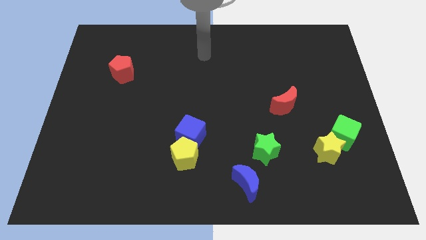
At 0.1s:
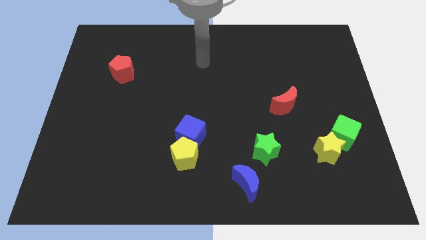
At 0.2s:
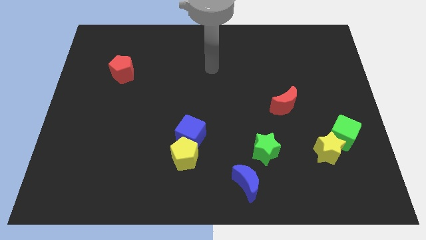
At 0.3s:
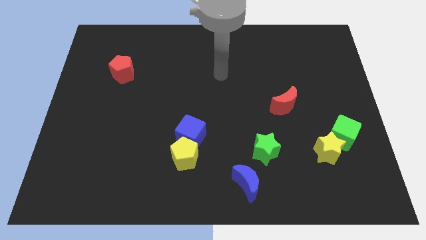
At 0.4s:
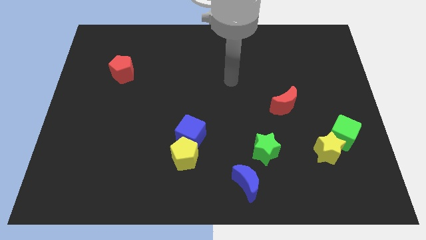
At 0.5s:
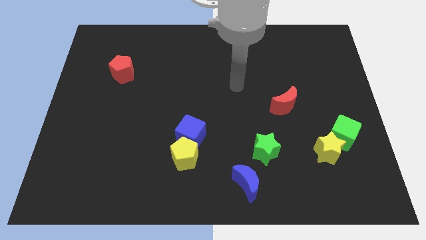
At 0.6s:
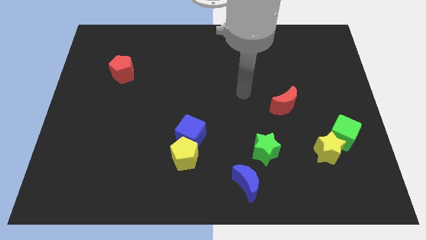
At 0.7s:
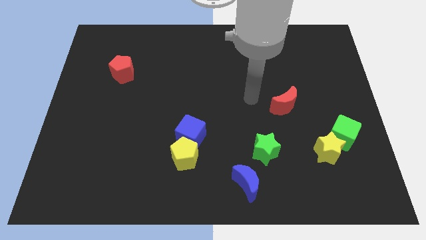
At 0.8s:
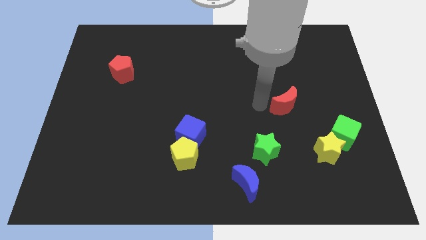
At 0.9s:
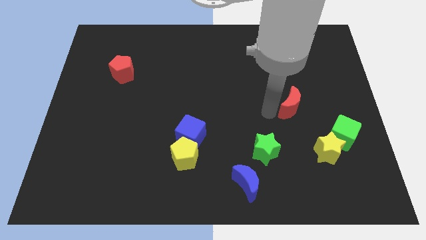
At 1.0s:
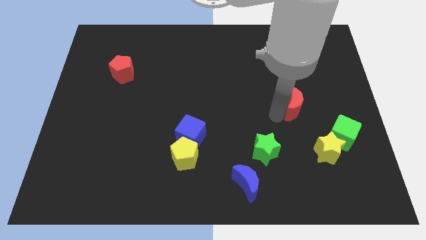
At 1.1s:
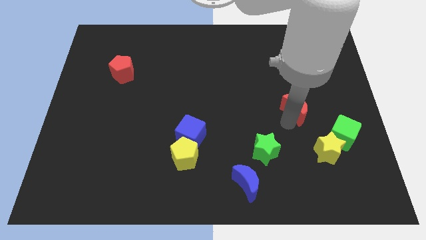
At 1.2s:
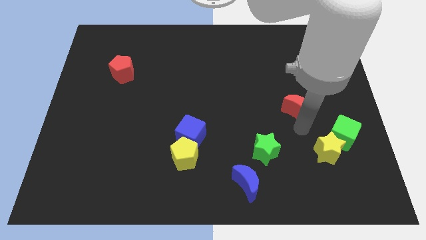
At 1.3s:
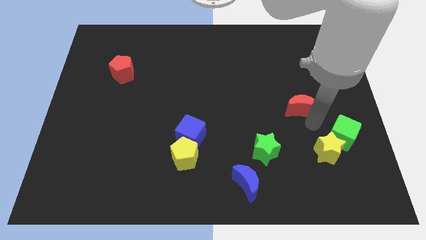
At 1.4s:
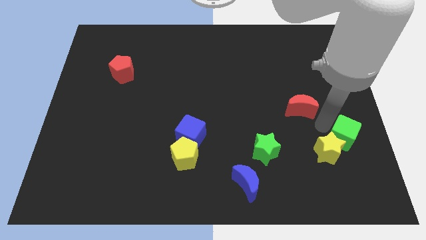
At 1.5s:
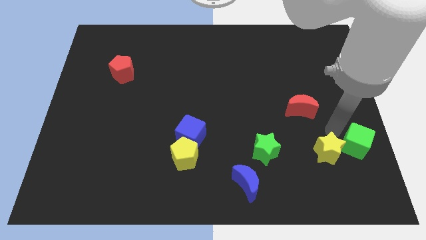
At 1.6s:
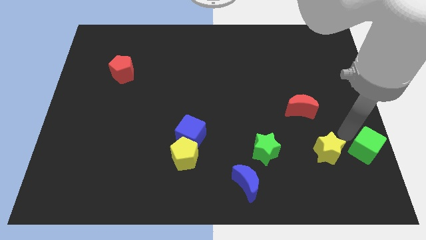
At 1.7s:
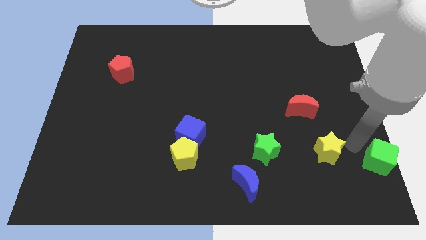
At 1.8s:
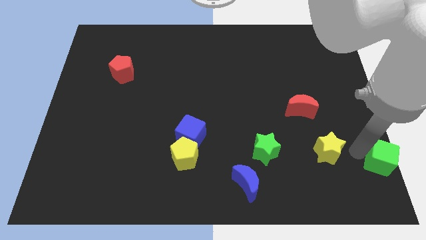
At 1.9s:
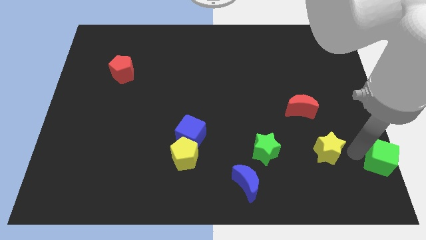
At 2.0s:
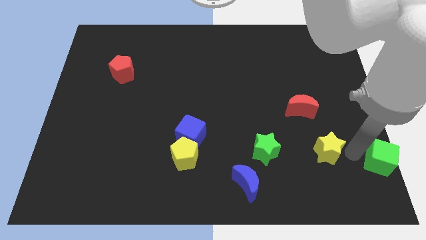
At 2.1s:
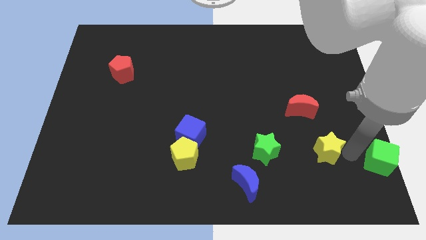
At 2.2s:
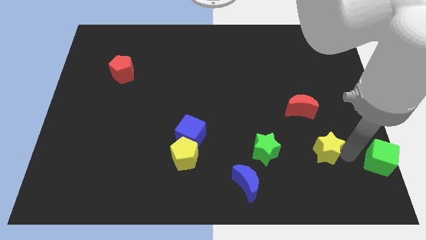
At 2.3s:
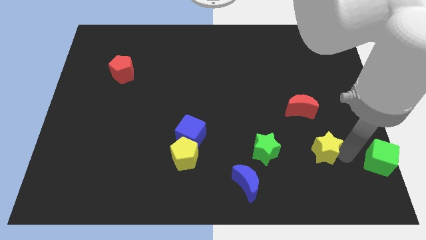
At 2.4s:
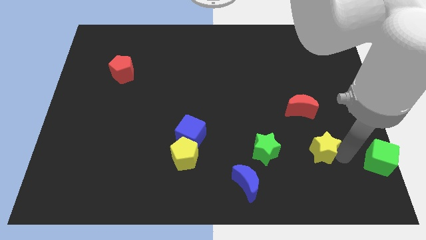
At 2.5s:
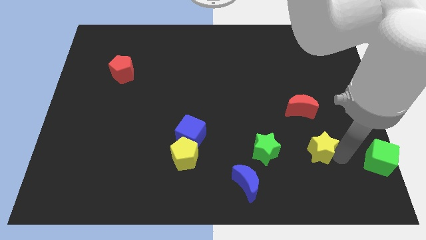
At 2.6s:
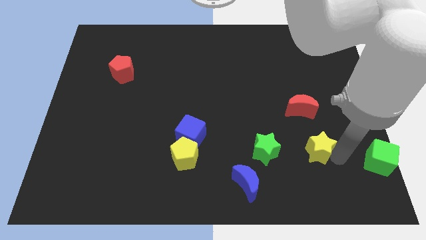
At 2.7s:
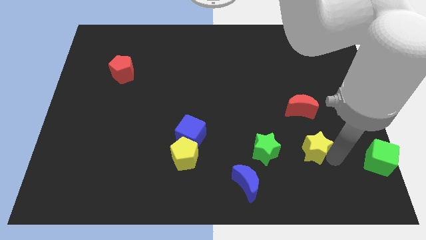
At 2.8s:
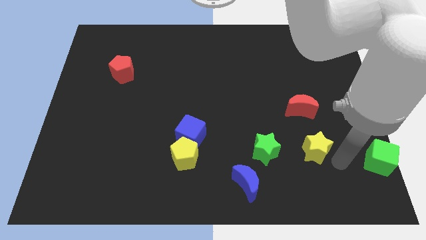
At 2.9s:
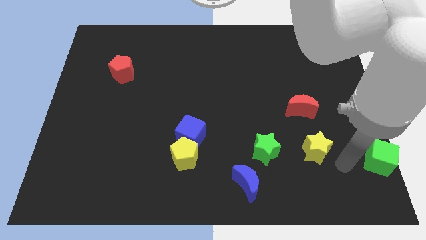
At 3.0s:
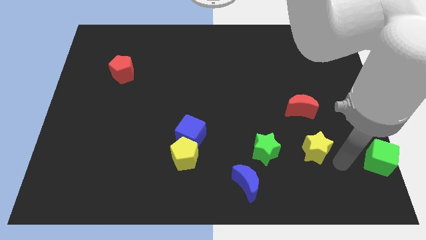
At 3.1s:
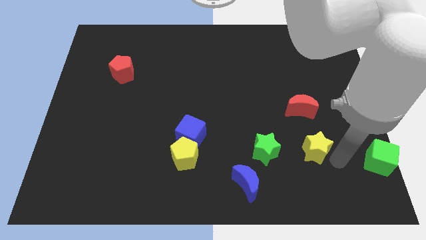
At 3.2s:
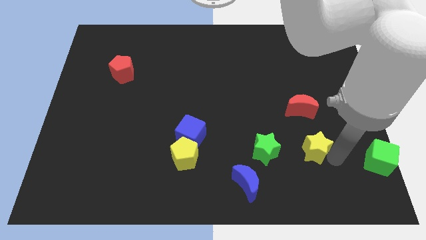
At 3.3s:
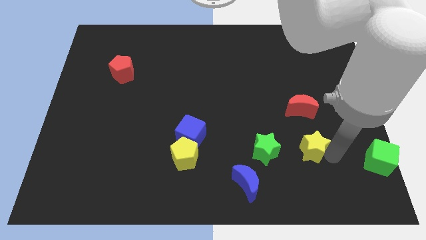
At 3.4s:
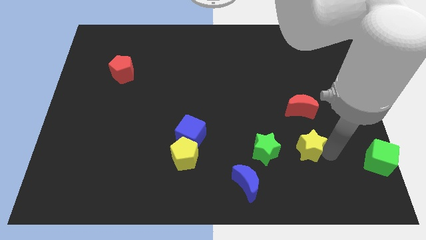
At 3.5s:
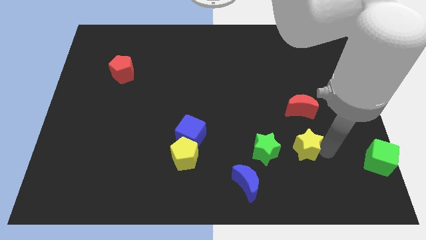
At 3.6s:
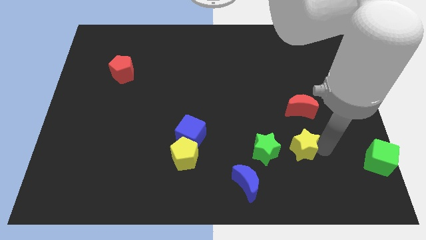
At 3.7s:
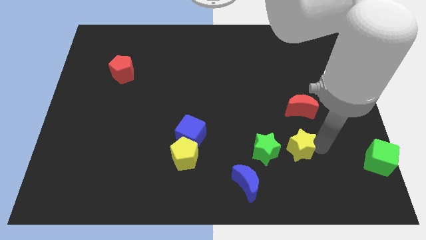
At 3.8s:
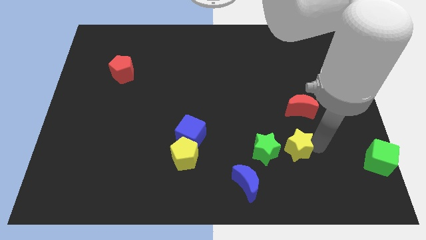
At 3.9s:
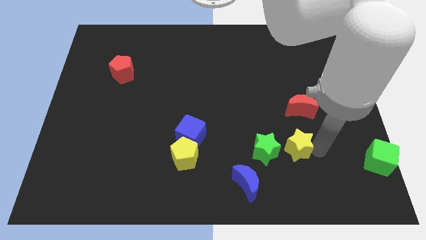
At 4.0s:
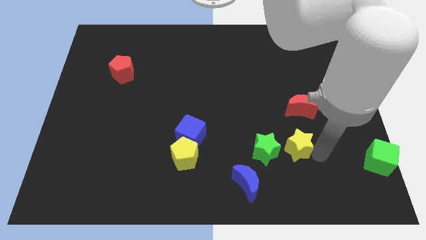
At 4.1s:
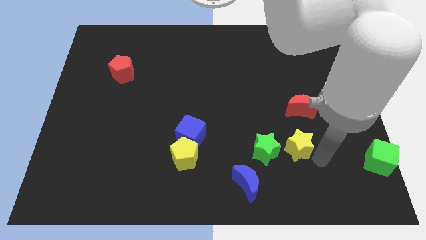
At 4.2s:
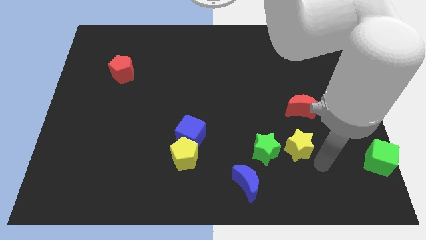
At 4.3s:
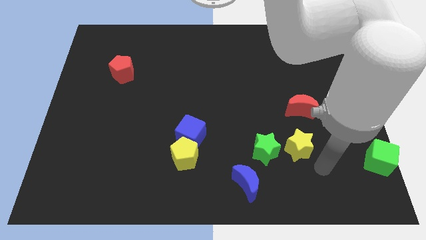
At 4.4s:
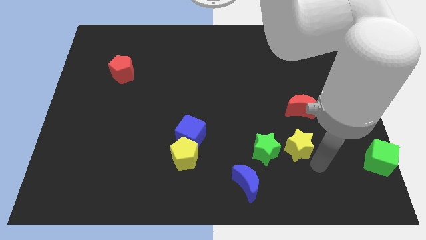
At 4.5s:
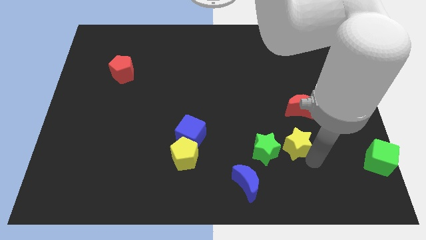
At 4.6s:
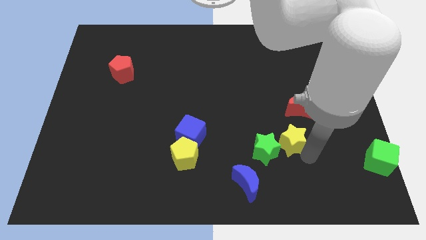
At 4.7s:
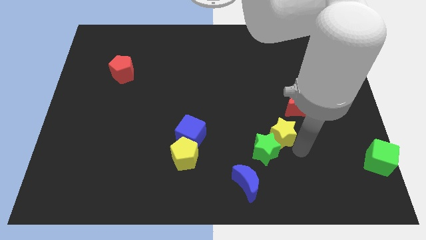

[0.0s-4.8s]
slightly move the yellow star diagonally up and to the left

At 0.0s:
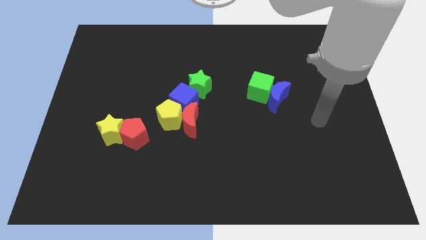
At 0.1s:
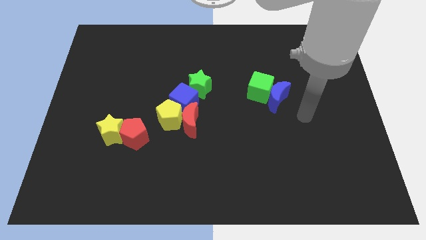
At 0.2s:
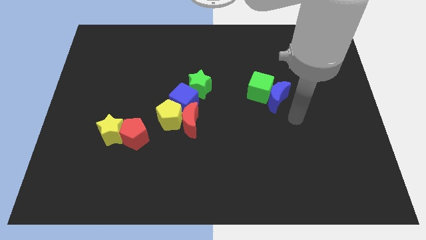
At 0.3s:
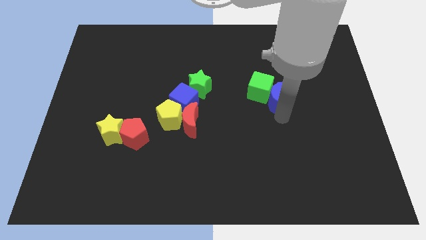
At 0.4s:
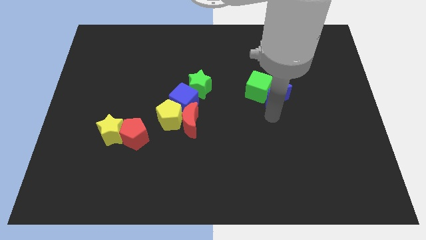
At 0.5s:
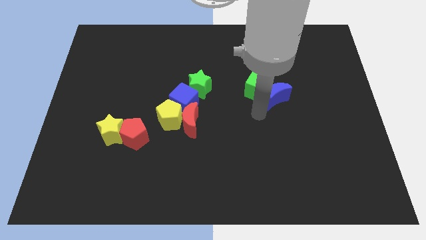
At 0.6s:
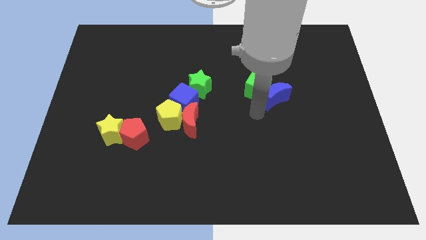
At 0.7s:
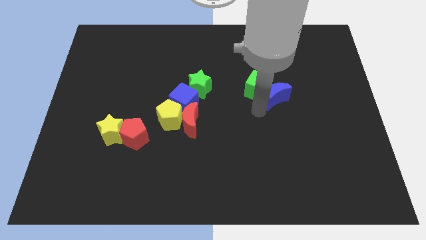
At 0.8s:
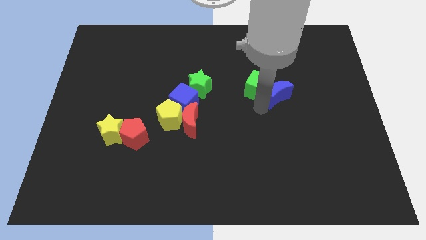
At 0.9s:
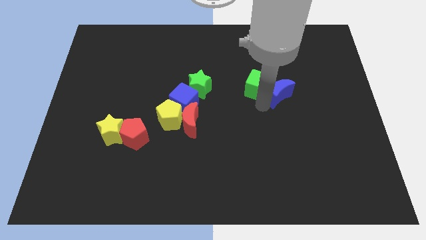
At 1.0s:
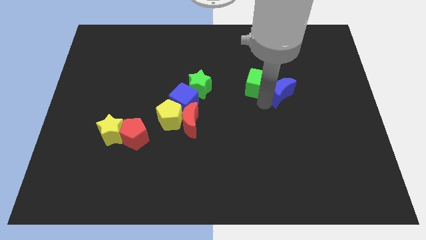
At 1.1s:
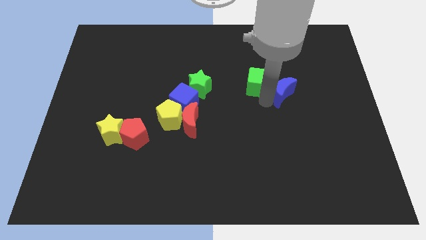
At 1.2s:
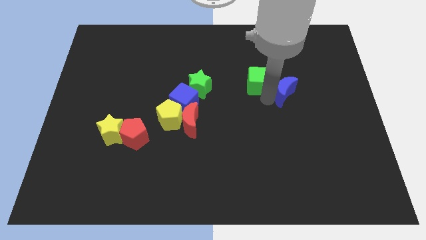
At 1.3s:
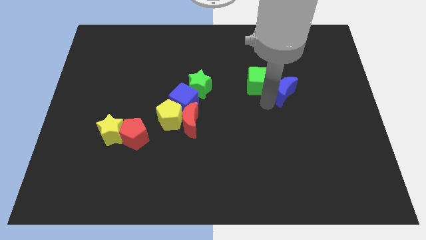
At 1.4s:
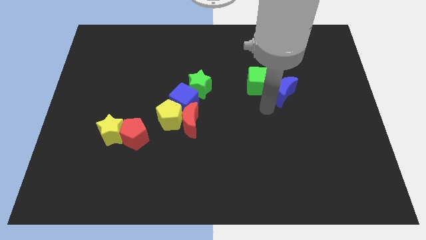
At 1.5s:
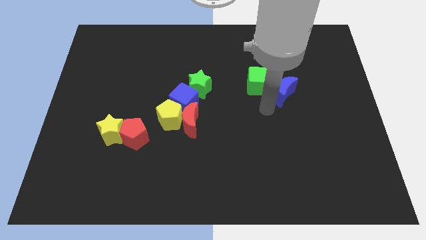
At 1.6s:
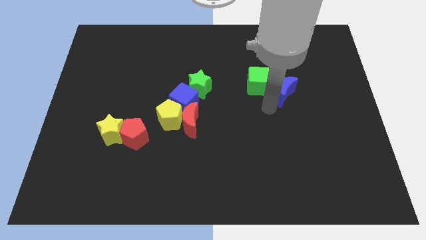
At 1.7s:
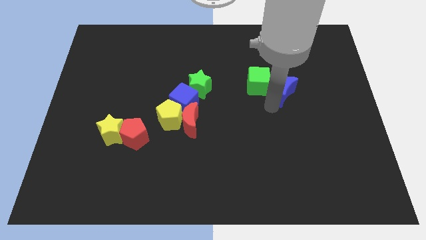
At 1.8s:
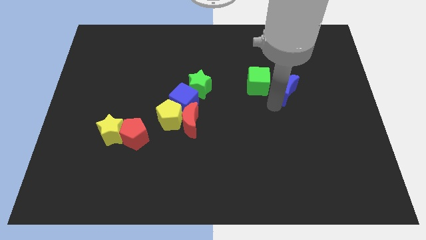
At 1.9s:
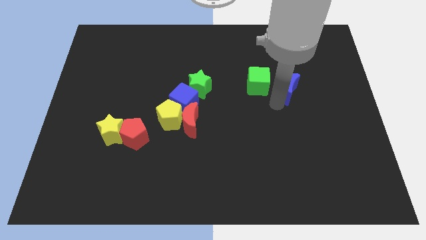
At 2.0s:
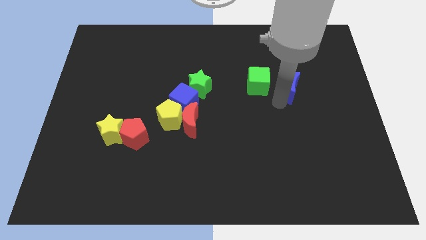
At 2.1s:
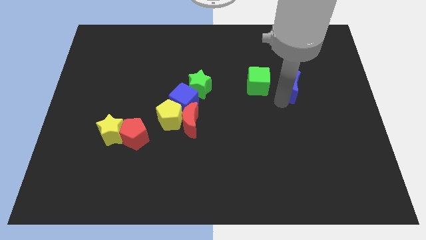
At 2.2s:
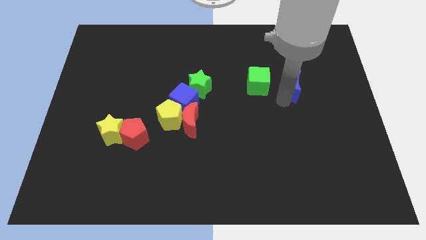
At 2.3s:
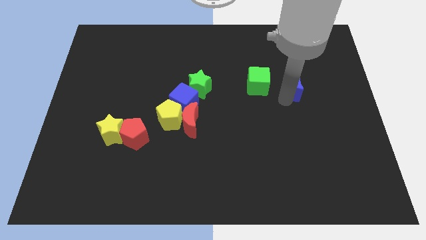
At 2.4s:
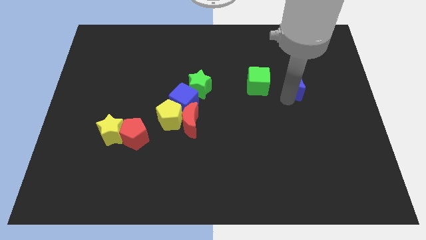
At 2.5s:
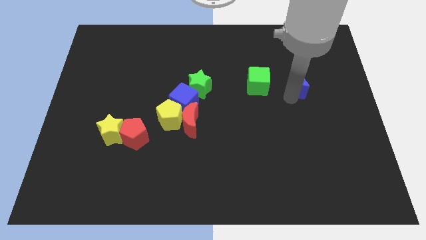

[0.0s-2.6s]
move the blue moon up and to the right a bit

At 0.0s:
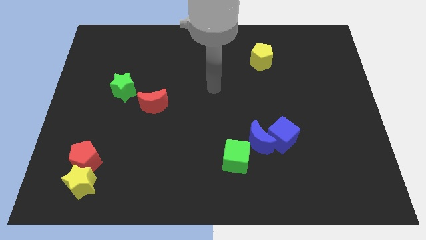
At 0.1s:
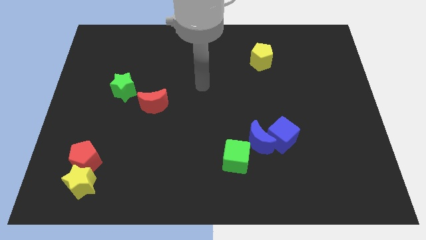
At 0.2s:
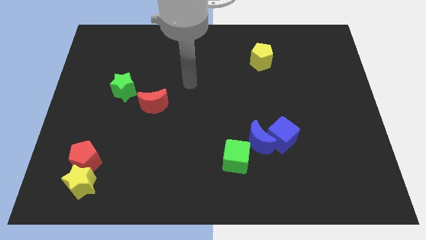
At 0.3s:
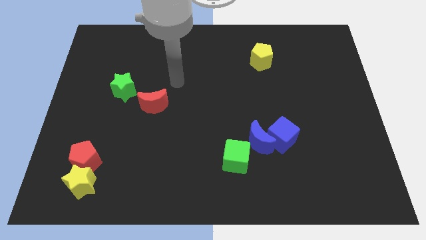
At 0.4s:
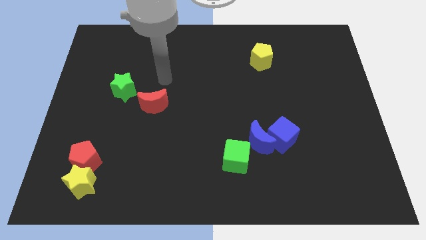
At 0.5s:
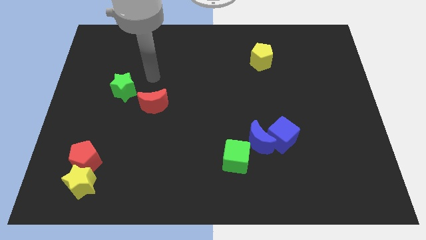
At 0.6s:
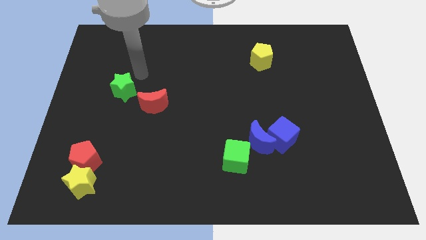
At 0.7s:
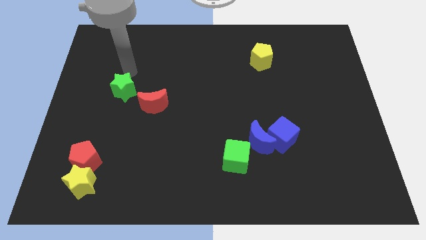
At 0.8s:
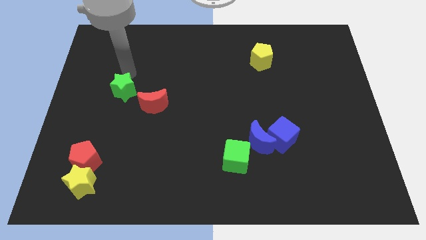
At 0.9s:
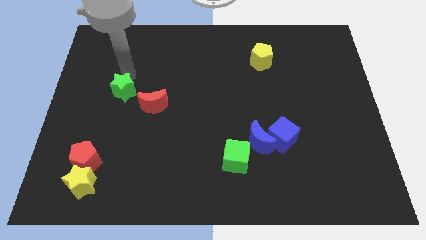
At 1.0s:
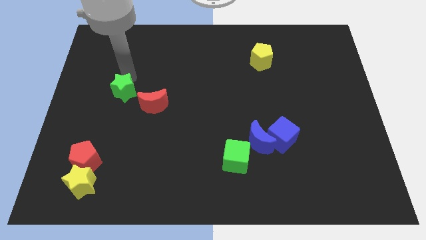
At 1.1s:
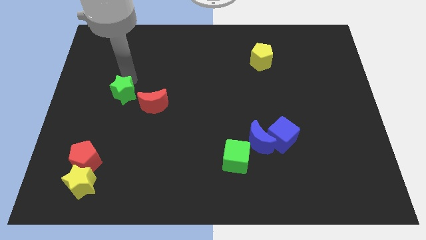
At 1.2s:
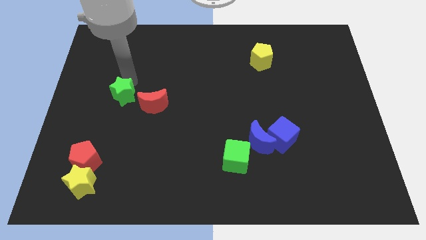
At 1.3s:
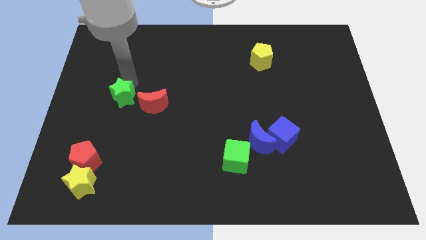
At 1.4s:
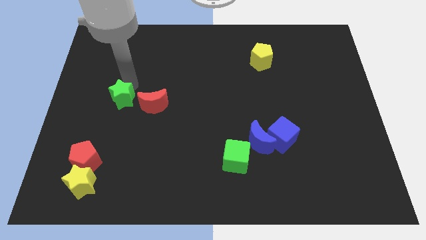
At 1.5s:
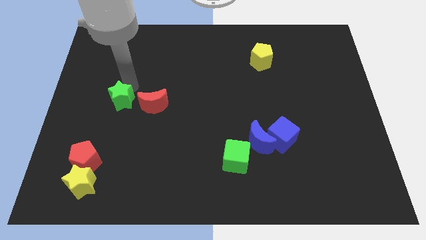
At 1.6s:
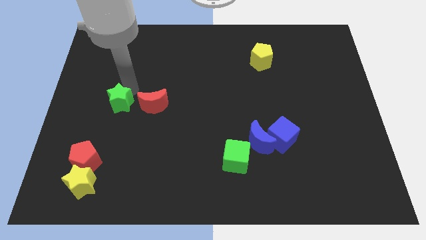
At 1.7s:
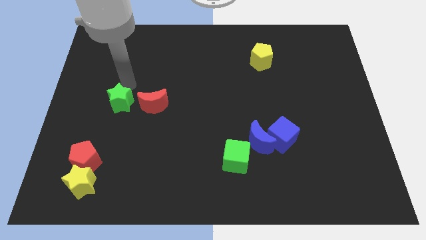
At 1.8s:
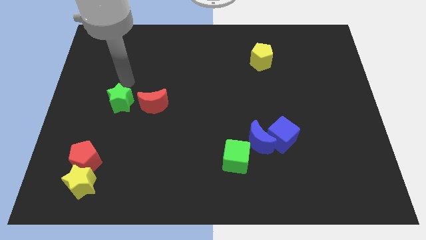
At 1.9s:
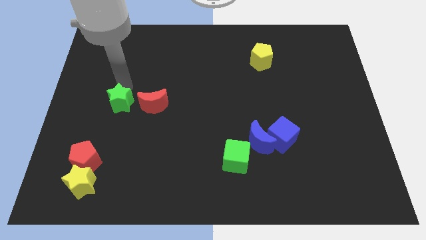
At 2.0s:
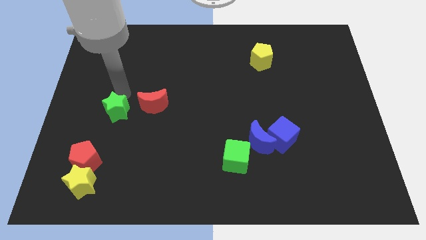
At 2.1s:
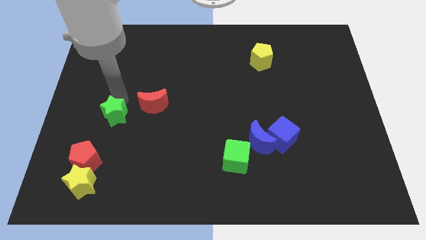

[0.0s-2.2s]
slightly move the green star down
